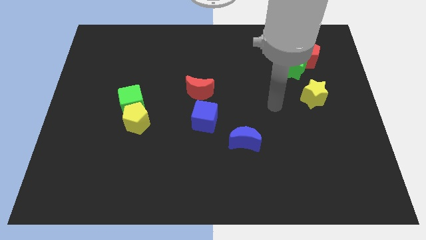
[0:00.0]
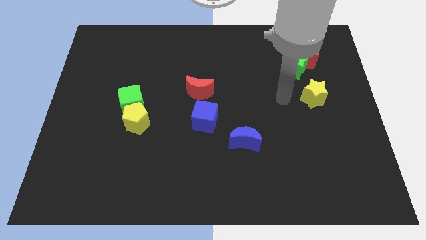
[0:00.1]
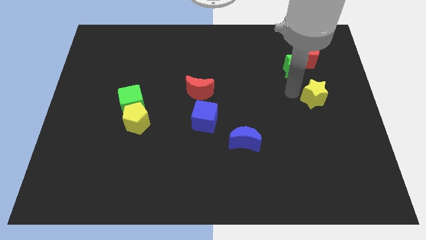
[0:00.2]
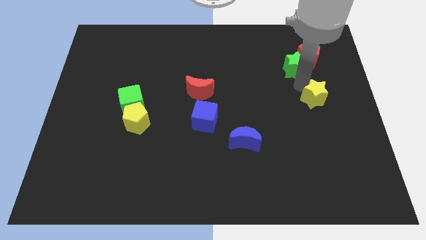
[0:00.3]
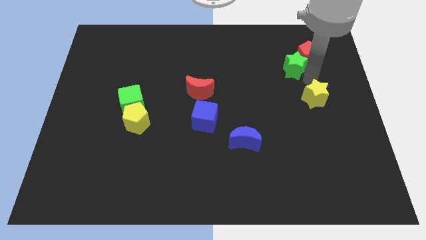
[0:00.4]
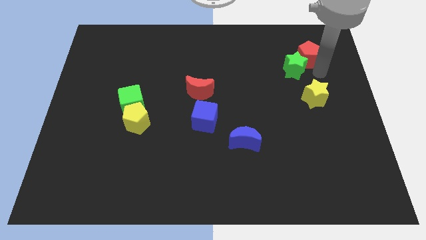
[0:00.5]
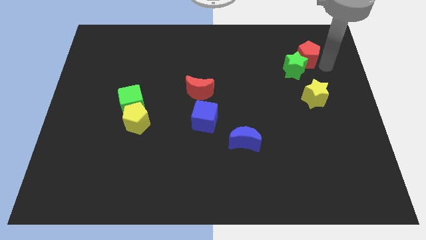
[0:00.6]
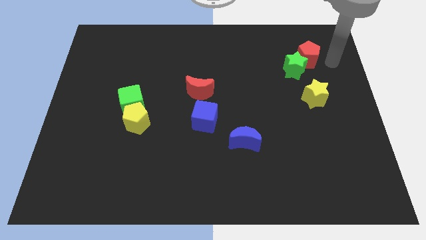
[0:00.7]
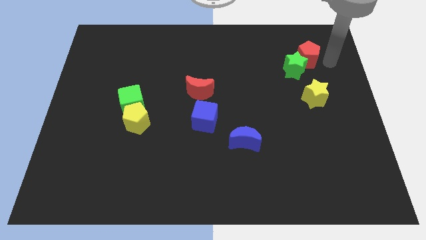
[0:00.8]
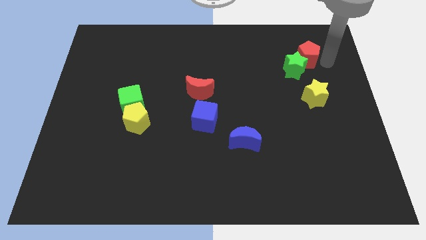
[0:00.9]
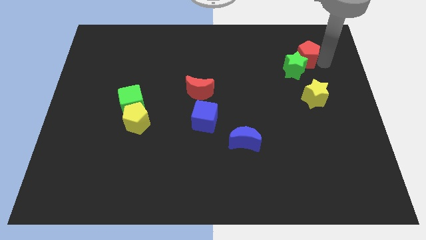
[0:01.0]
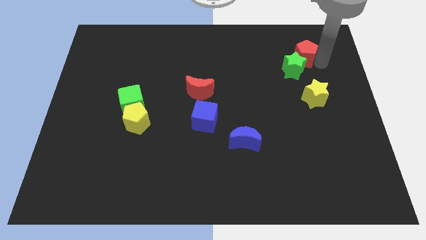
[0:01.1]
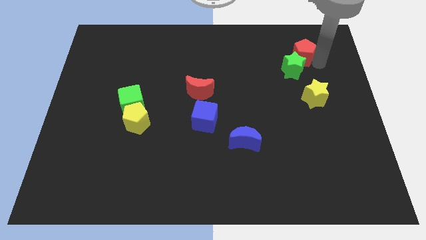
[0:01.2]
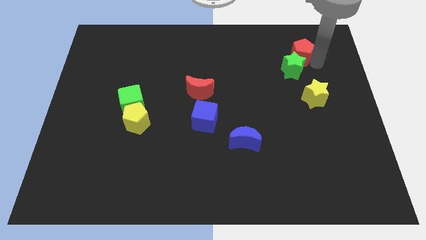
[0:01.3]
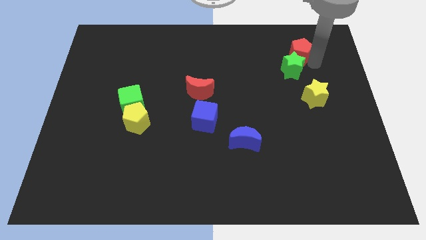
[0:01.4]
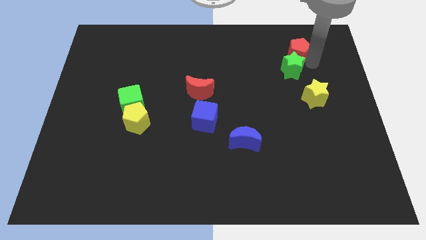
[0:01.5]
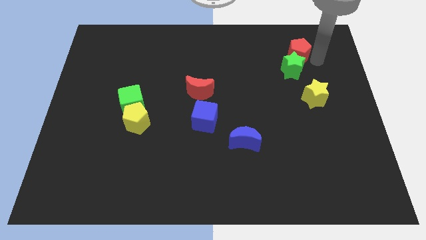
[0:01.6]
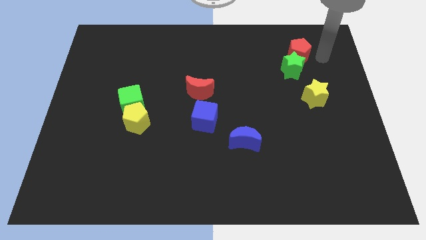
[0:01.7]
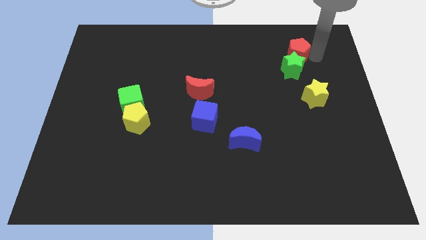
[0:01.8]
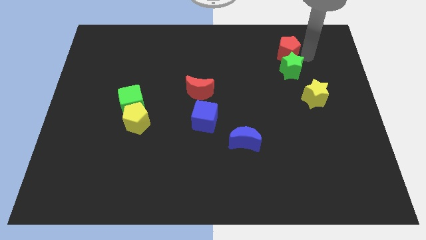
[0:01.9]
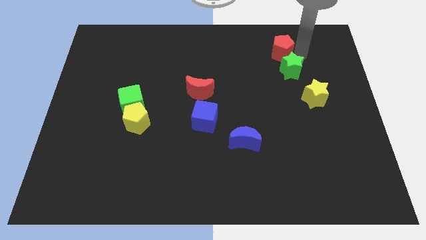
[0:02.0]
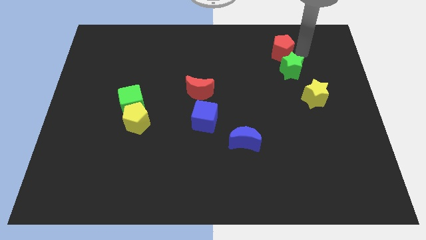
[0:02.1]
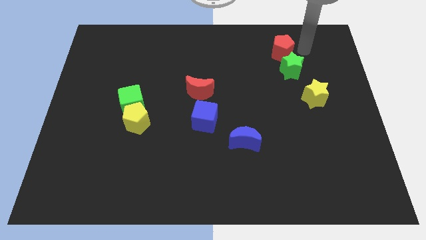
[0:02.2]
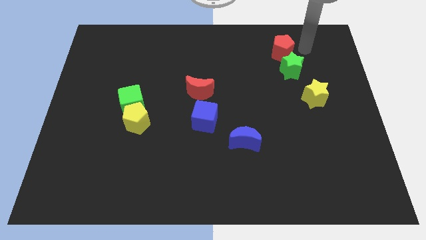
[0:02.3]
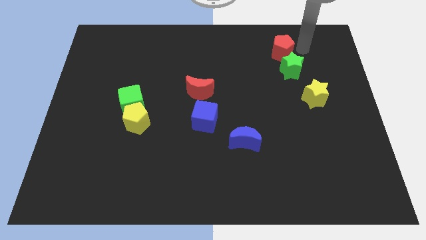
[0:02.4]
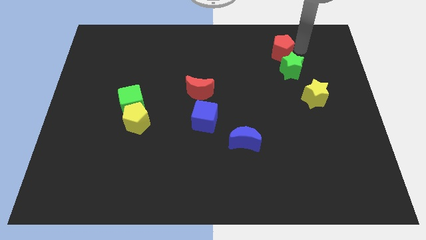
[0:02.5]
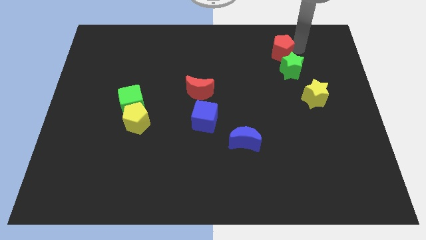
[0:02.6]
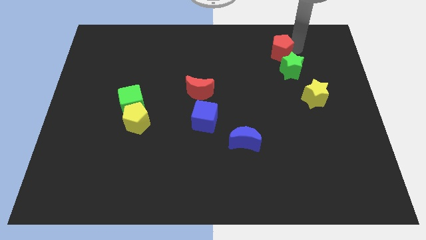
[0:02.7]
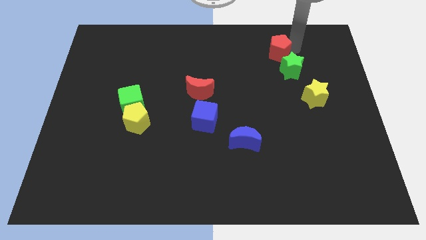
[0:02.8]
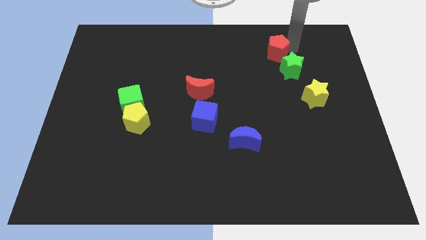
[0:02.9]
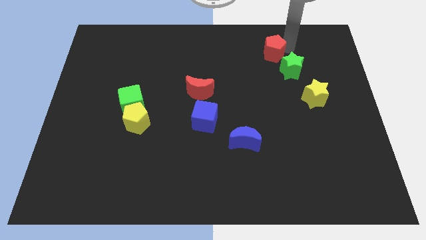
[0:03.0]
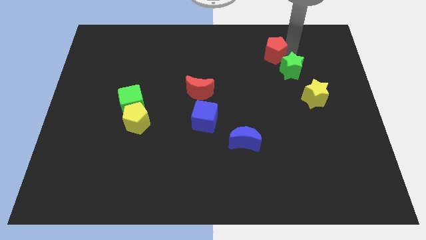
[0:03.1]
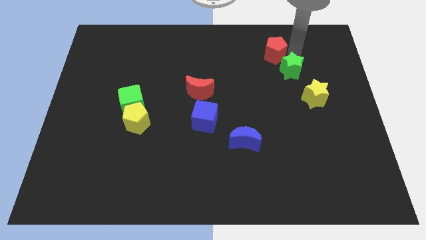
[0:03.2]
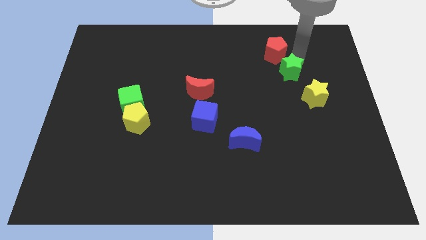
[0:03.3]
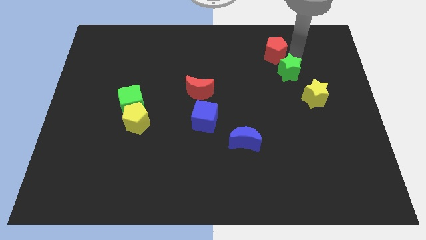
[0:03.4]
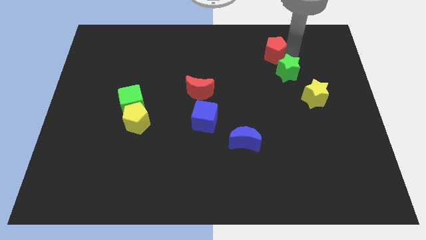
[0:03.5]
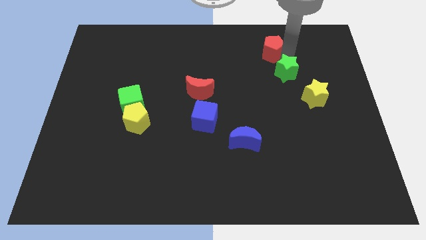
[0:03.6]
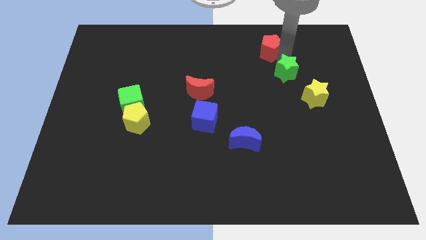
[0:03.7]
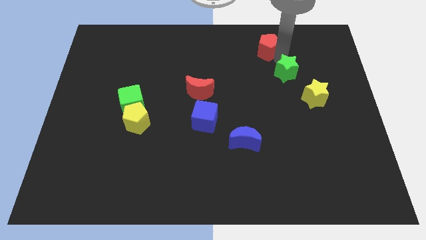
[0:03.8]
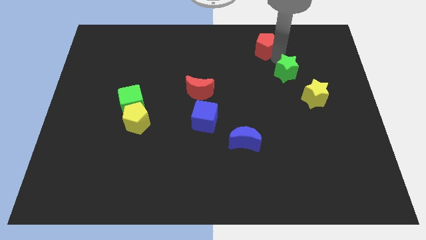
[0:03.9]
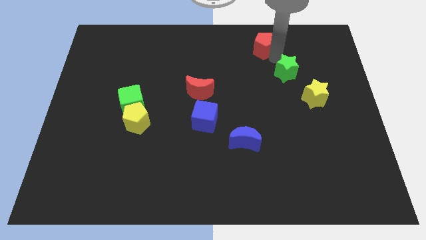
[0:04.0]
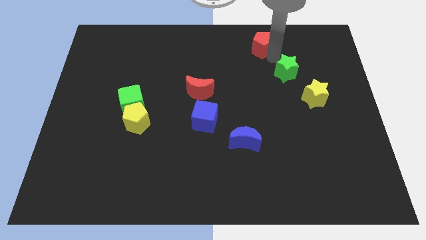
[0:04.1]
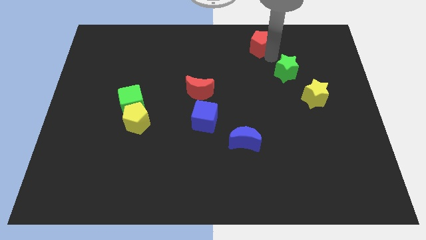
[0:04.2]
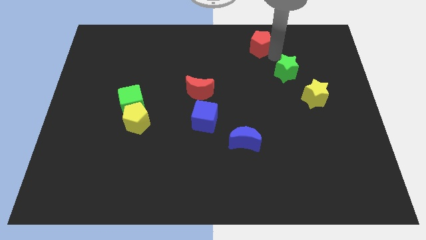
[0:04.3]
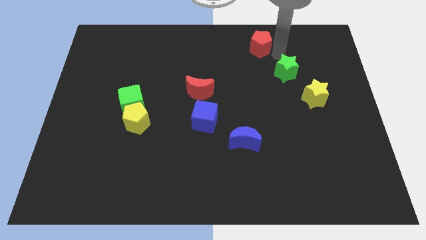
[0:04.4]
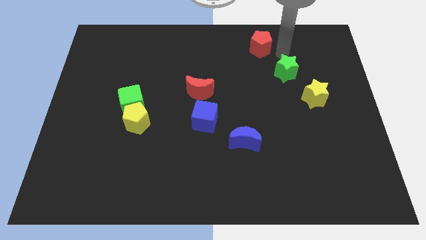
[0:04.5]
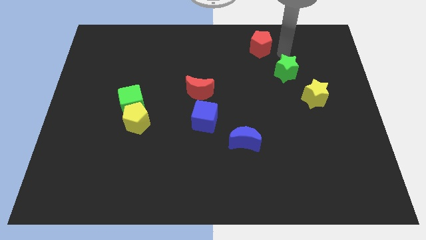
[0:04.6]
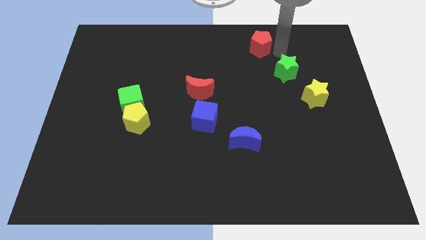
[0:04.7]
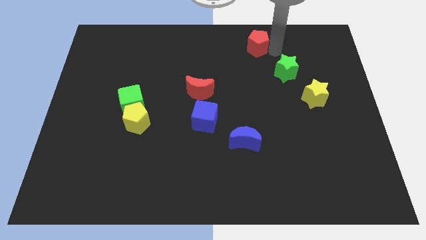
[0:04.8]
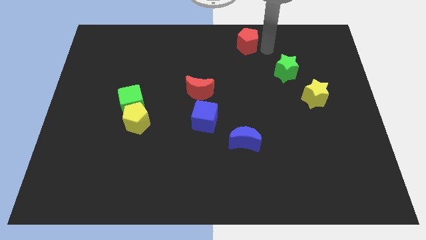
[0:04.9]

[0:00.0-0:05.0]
move the red pentagon to the top

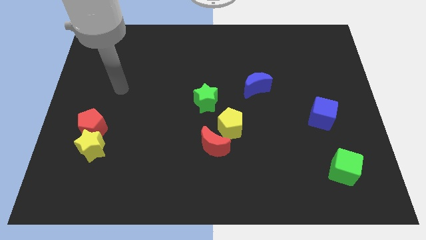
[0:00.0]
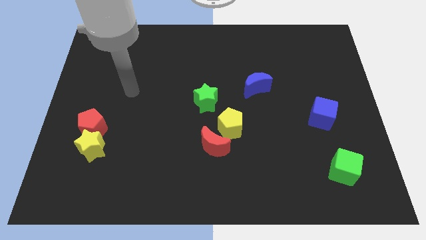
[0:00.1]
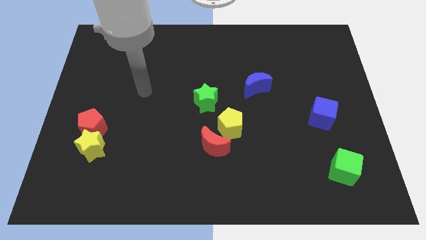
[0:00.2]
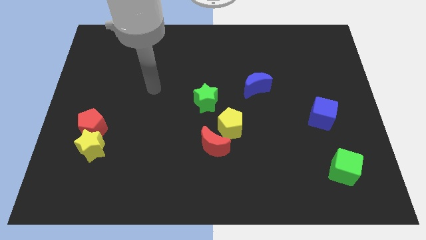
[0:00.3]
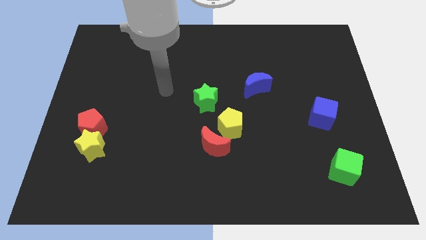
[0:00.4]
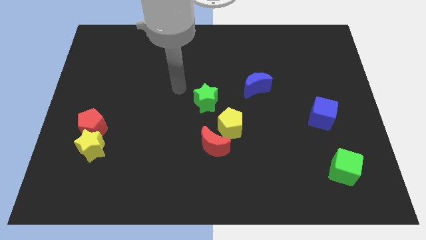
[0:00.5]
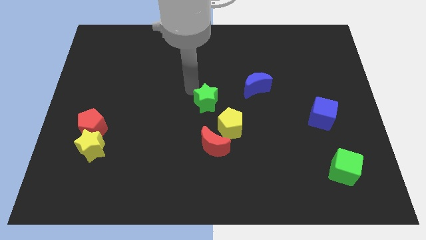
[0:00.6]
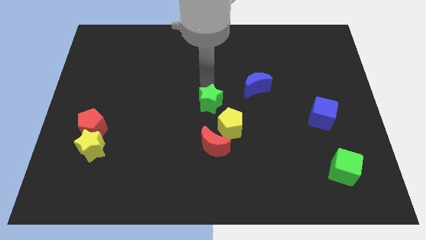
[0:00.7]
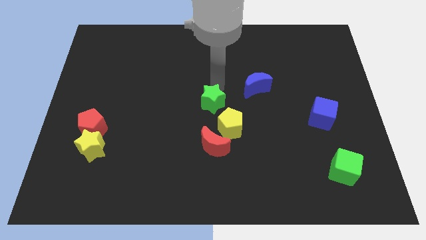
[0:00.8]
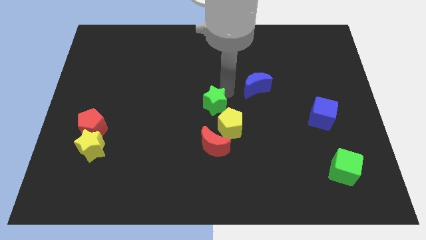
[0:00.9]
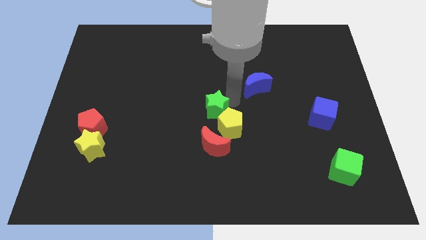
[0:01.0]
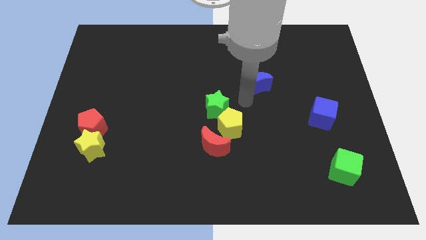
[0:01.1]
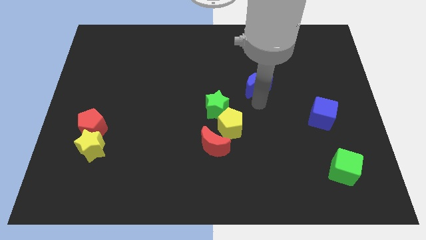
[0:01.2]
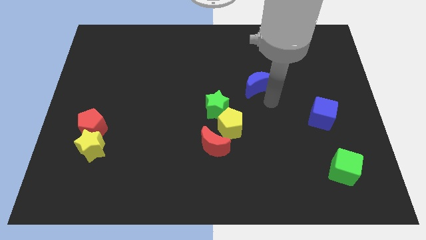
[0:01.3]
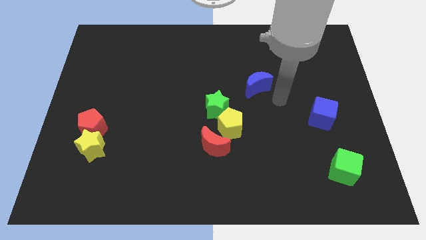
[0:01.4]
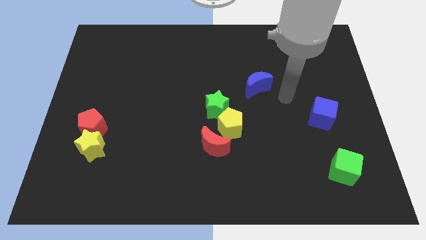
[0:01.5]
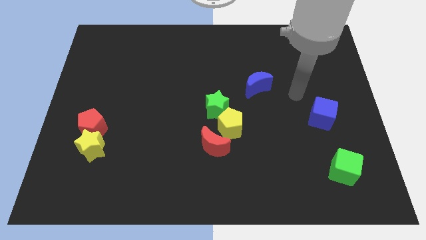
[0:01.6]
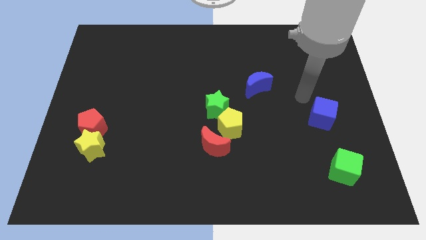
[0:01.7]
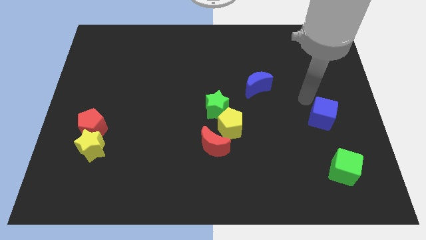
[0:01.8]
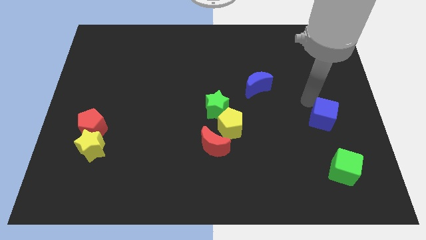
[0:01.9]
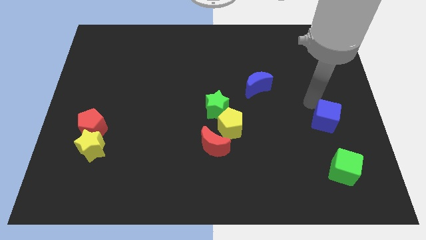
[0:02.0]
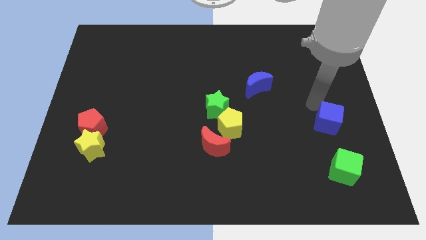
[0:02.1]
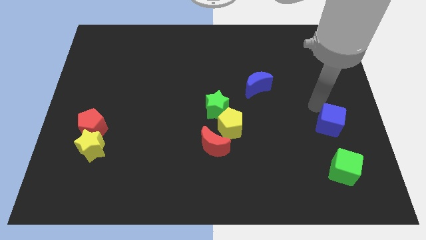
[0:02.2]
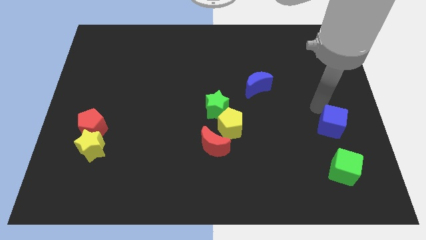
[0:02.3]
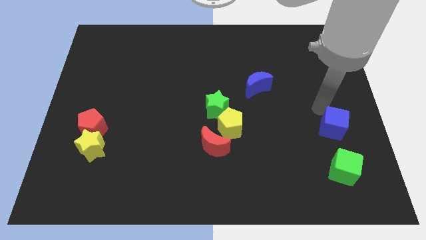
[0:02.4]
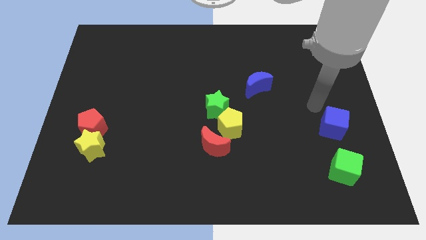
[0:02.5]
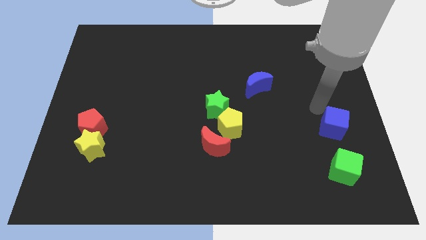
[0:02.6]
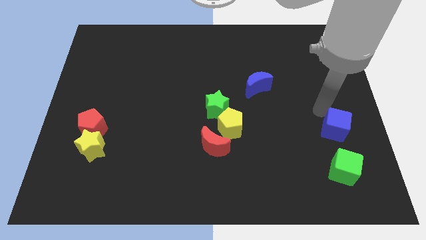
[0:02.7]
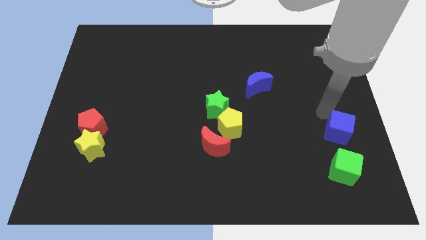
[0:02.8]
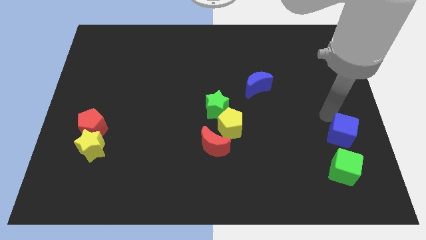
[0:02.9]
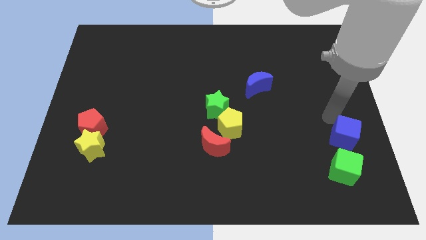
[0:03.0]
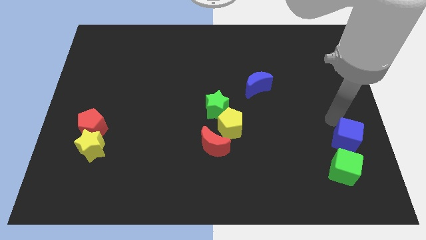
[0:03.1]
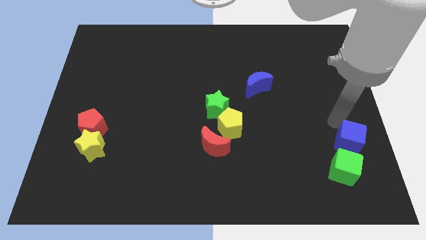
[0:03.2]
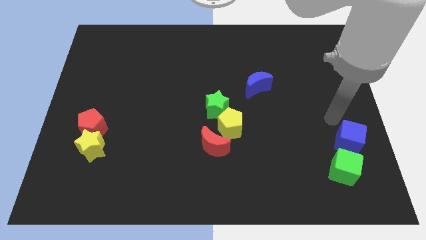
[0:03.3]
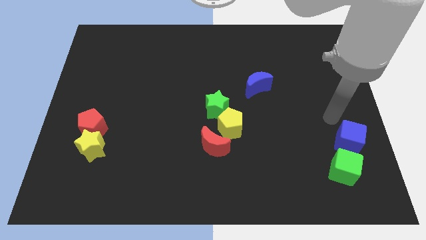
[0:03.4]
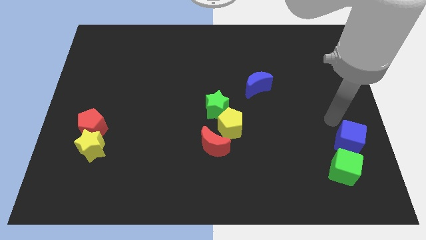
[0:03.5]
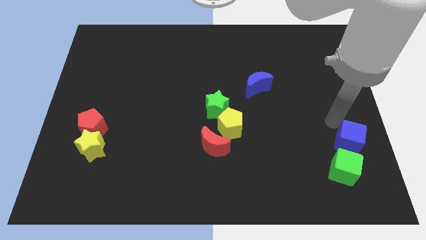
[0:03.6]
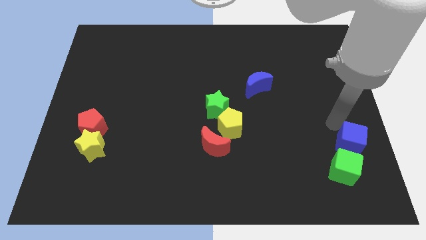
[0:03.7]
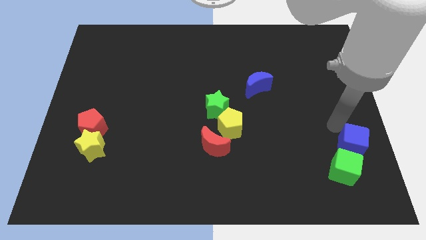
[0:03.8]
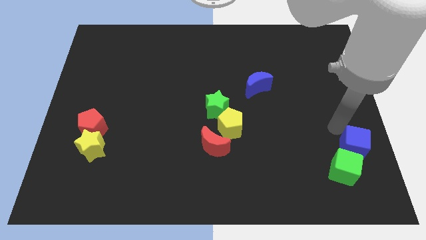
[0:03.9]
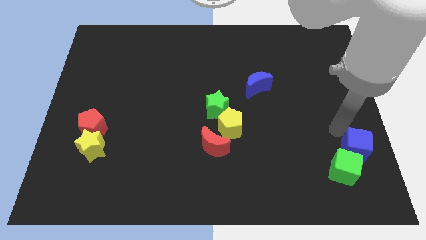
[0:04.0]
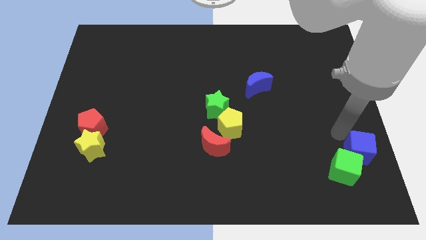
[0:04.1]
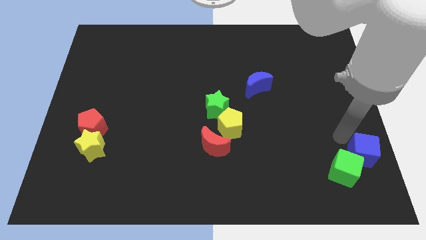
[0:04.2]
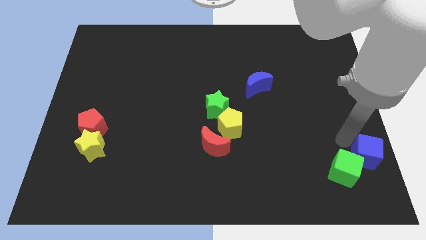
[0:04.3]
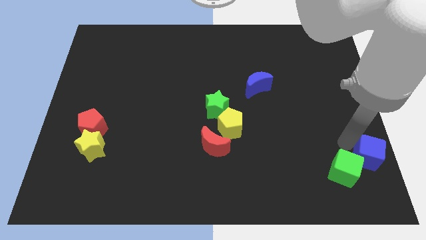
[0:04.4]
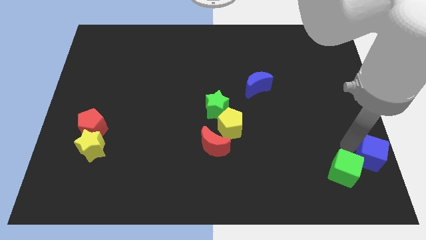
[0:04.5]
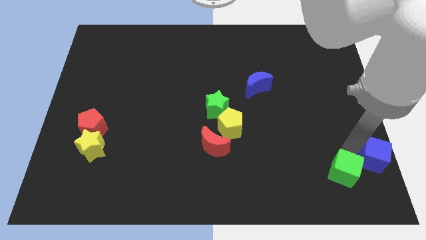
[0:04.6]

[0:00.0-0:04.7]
put the blue cube to the bottom right corner
